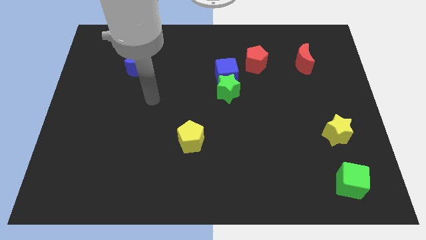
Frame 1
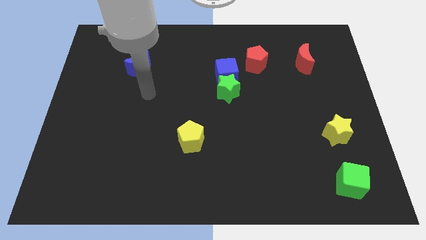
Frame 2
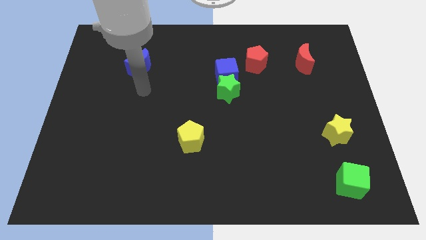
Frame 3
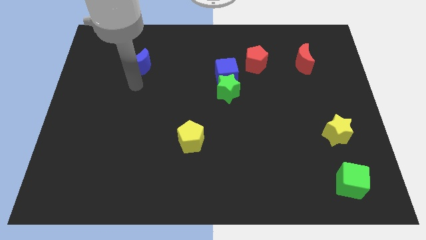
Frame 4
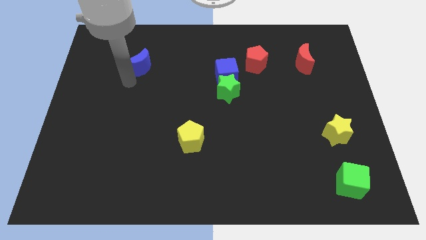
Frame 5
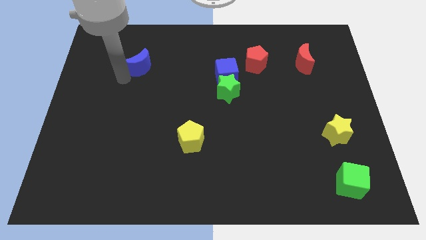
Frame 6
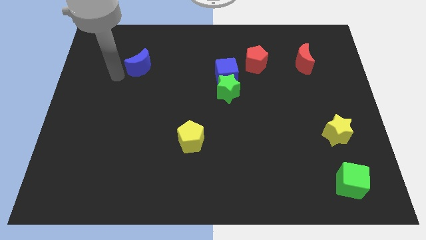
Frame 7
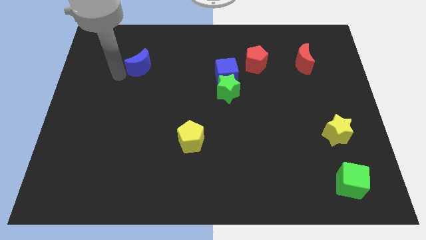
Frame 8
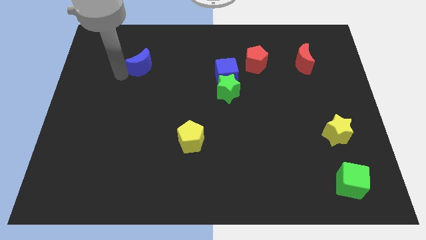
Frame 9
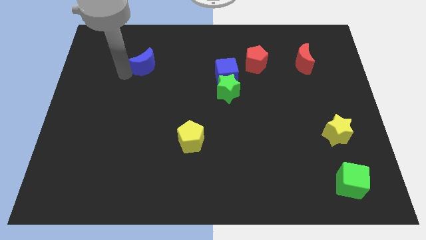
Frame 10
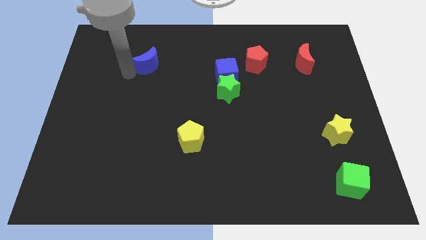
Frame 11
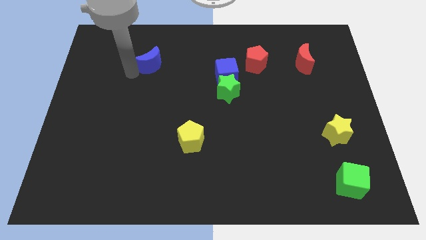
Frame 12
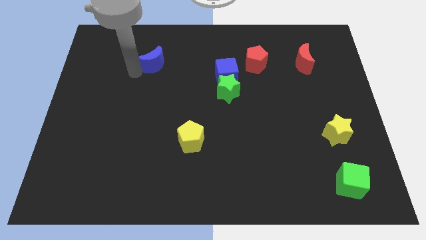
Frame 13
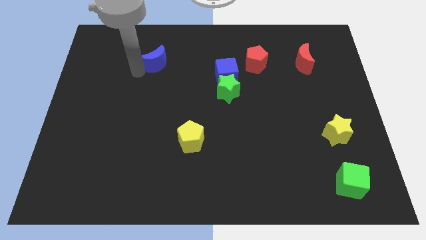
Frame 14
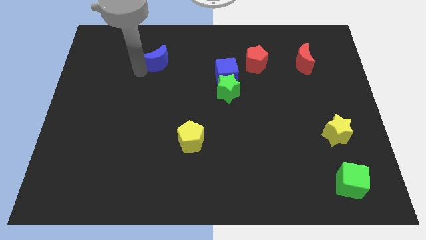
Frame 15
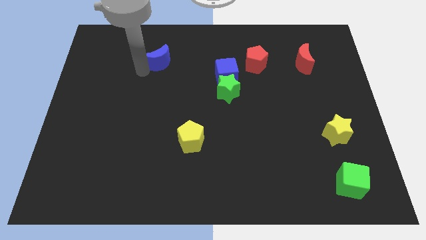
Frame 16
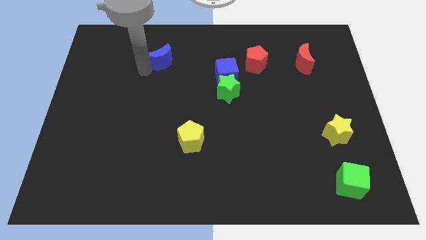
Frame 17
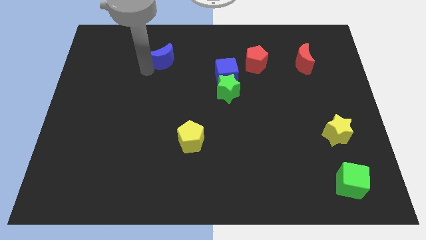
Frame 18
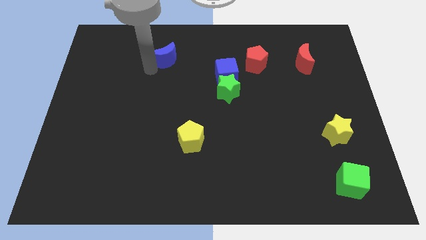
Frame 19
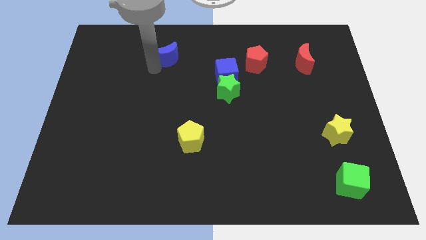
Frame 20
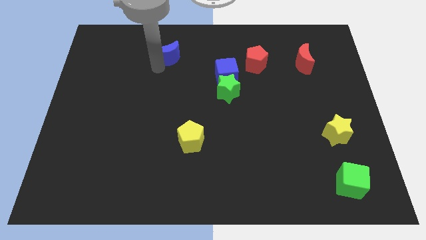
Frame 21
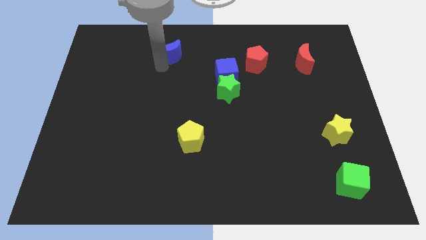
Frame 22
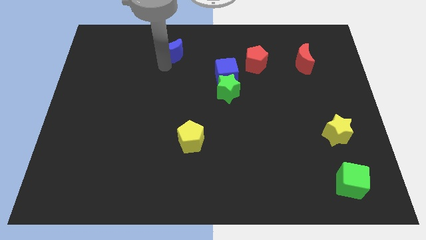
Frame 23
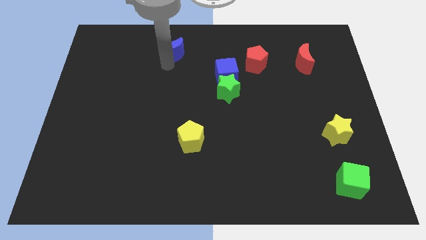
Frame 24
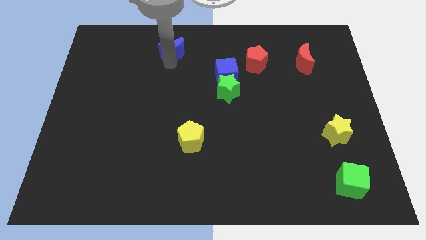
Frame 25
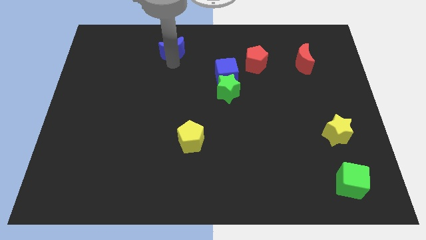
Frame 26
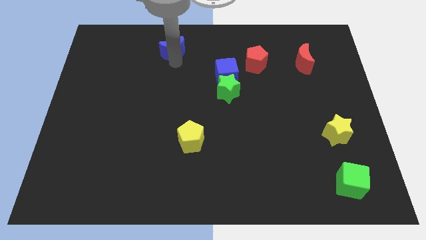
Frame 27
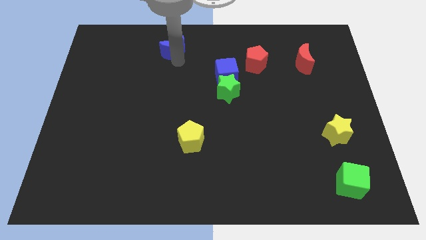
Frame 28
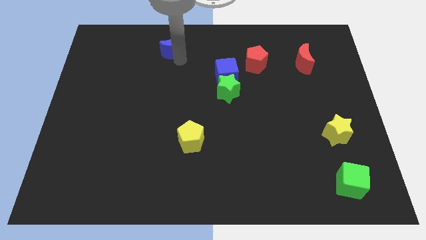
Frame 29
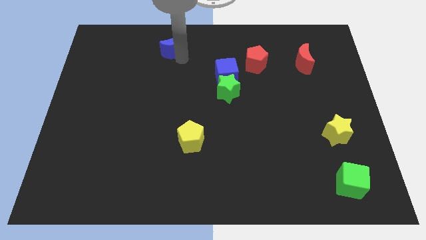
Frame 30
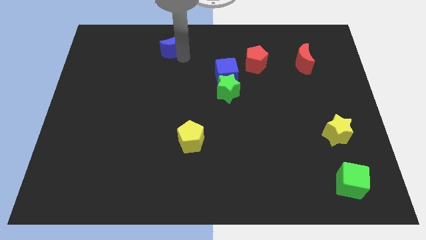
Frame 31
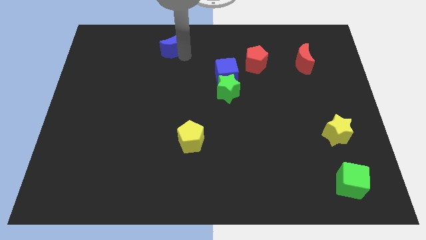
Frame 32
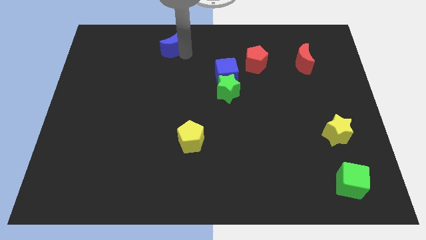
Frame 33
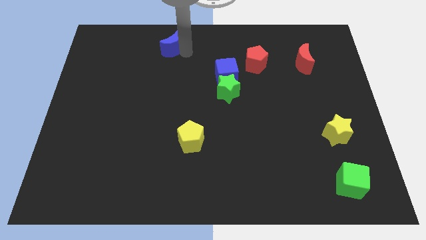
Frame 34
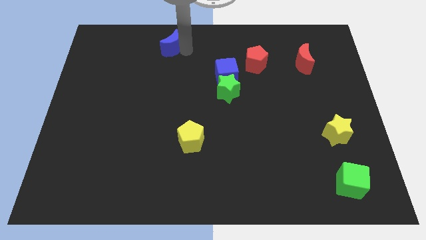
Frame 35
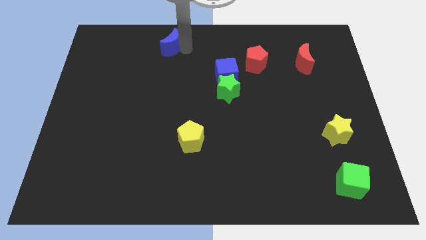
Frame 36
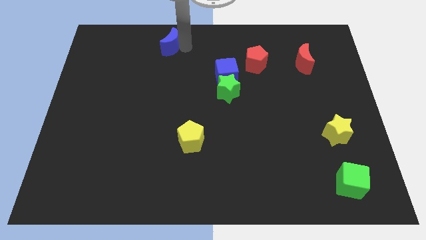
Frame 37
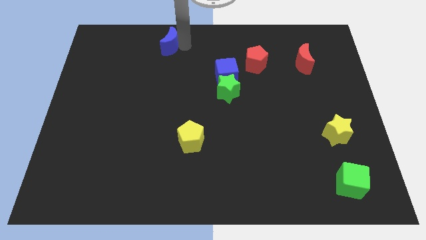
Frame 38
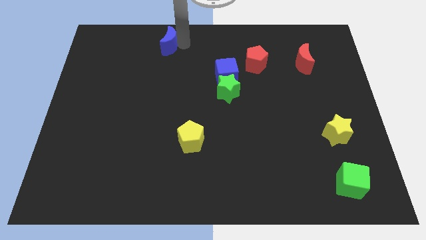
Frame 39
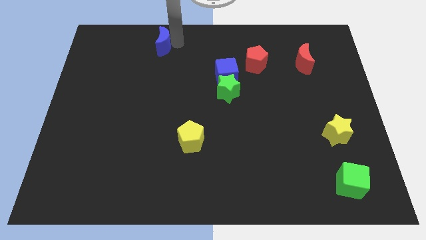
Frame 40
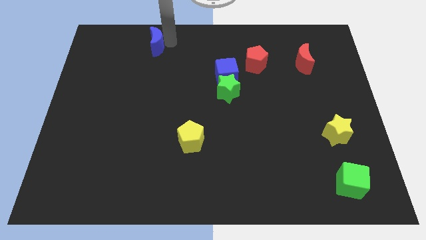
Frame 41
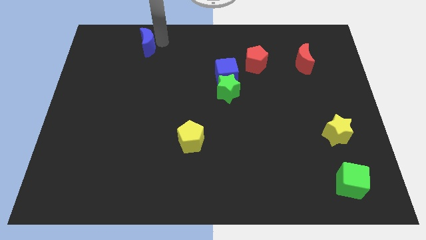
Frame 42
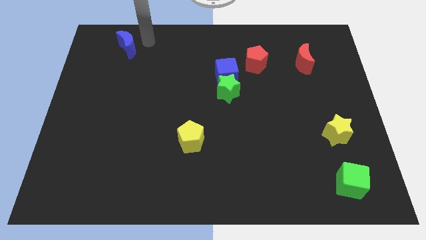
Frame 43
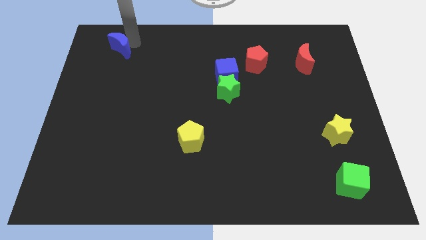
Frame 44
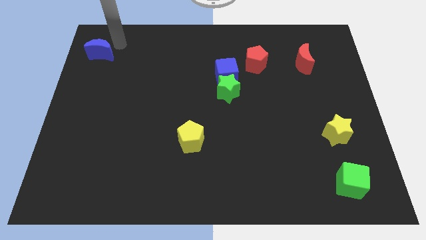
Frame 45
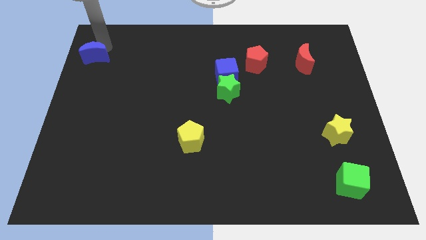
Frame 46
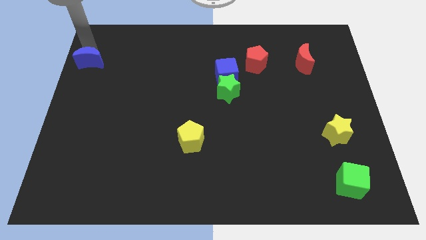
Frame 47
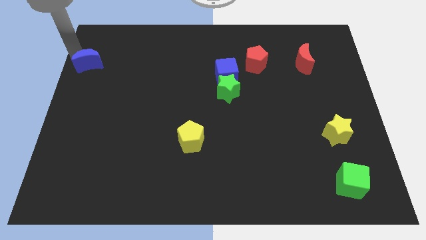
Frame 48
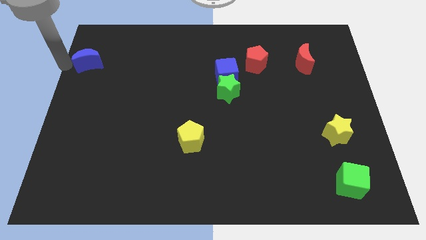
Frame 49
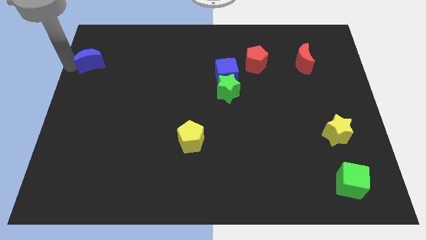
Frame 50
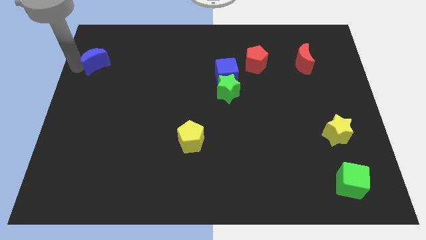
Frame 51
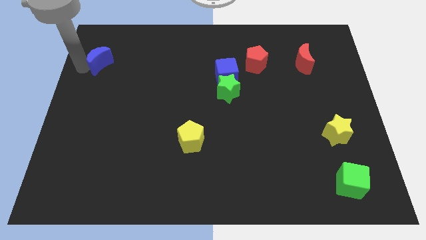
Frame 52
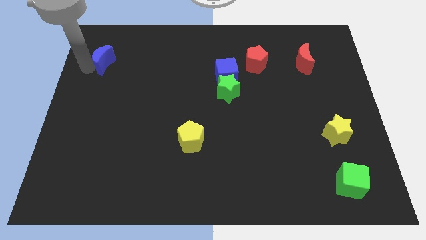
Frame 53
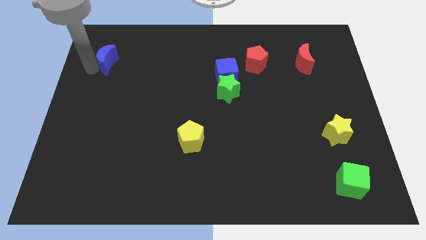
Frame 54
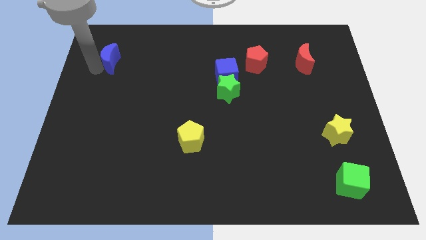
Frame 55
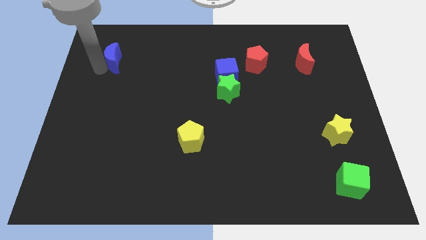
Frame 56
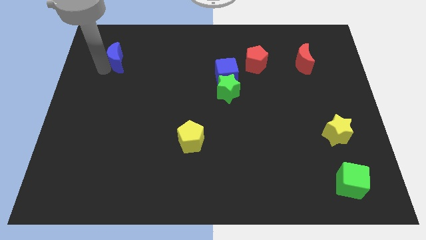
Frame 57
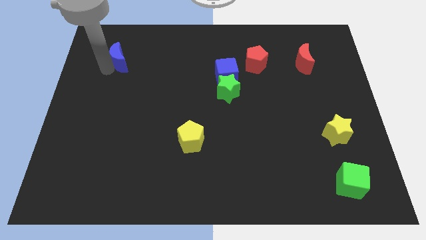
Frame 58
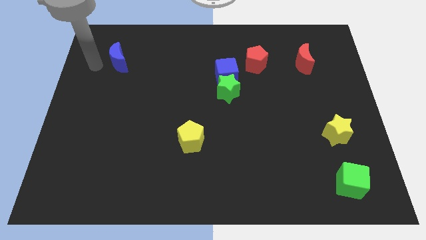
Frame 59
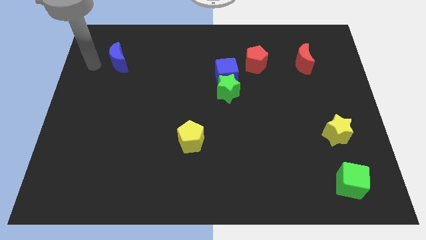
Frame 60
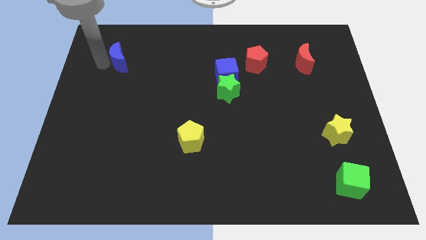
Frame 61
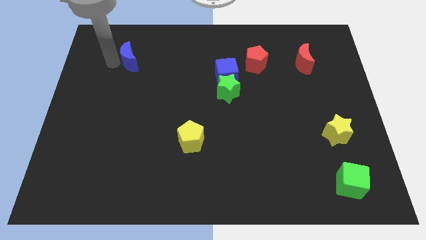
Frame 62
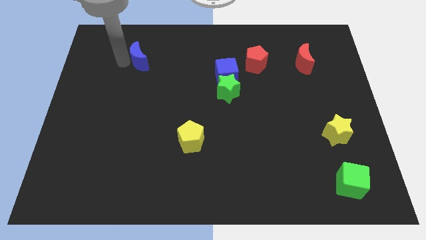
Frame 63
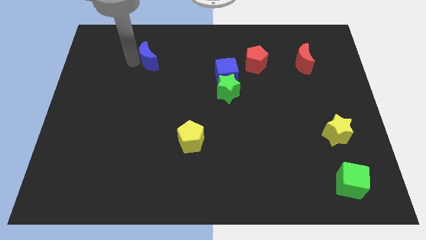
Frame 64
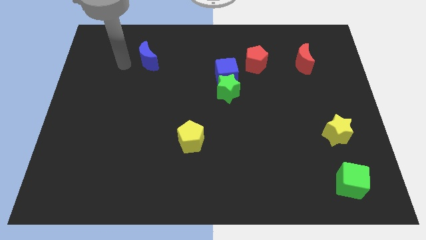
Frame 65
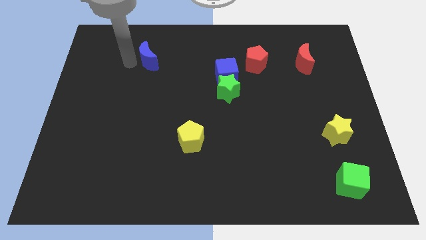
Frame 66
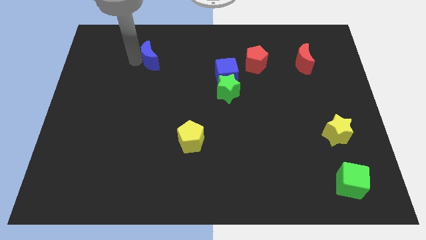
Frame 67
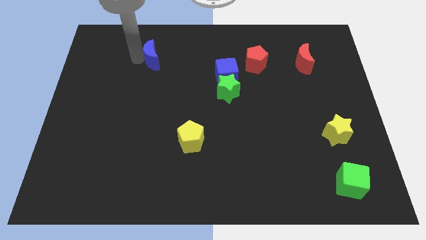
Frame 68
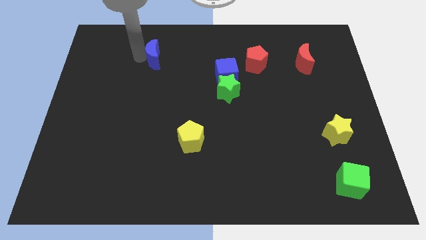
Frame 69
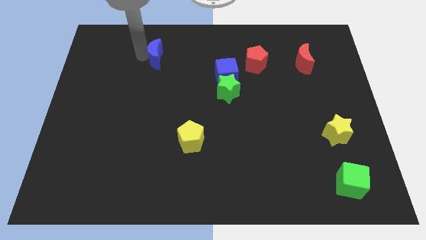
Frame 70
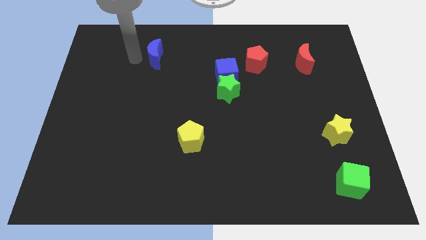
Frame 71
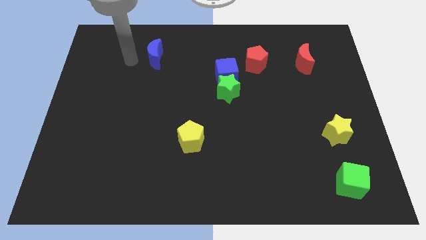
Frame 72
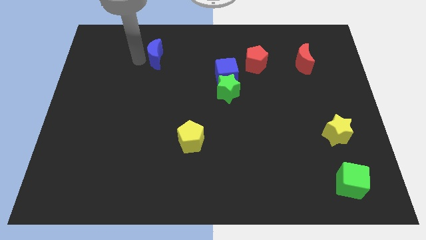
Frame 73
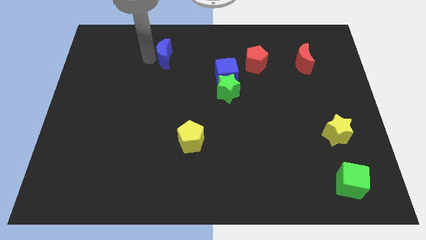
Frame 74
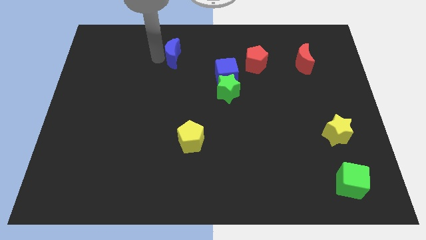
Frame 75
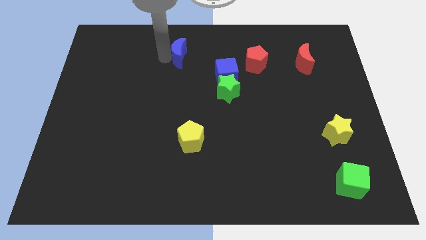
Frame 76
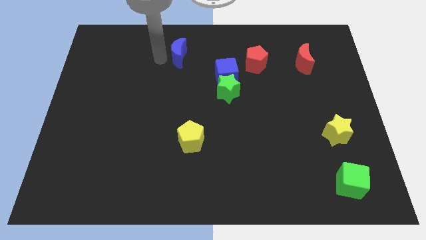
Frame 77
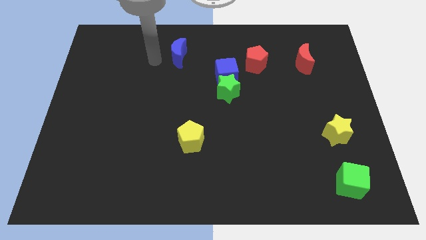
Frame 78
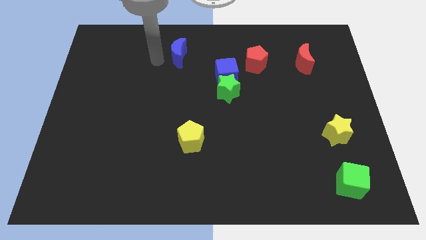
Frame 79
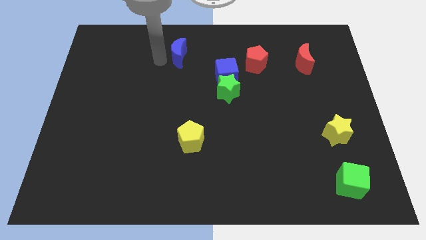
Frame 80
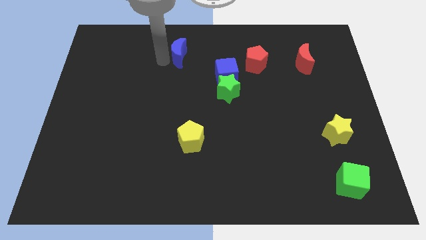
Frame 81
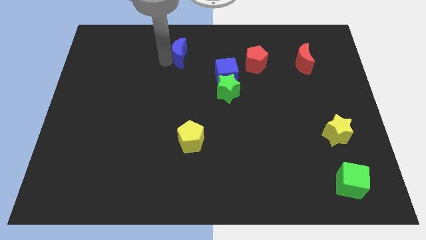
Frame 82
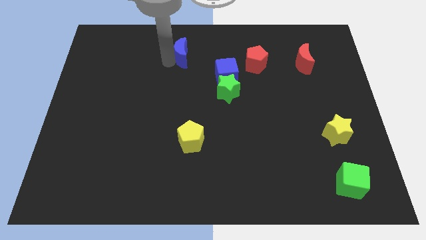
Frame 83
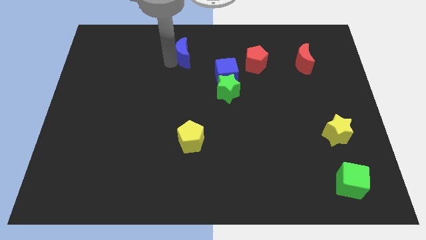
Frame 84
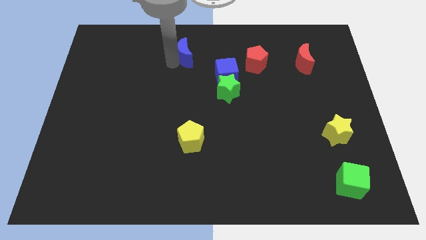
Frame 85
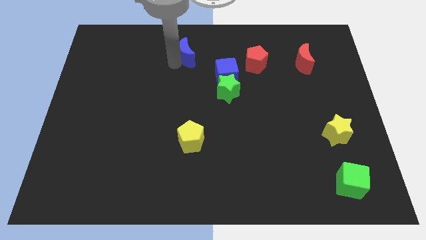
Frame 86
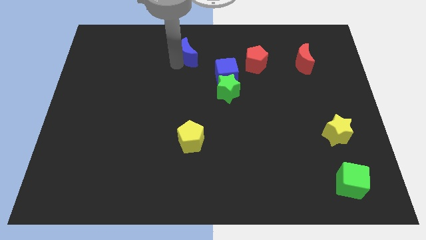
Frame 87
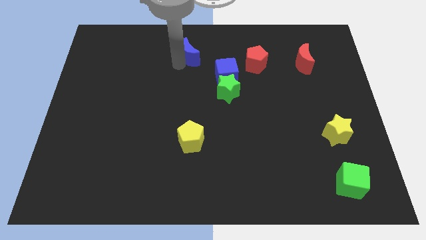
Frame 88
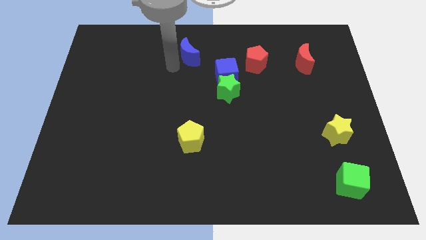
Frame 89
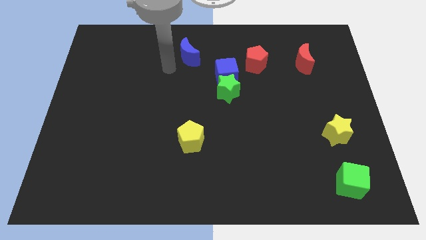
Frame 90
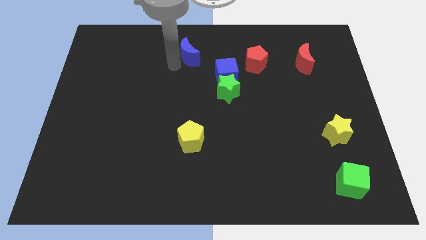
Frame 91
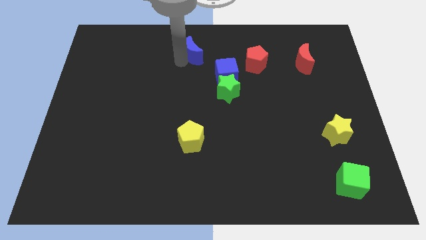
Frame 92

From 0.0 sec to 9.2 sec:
move the blue moon to the top
